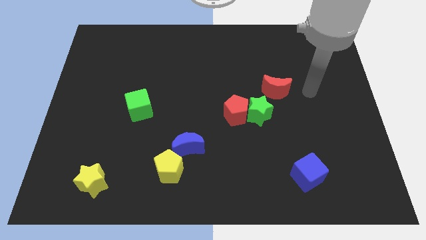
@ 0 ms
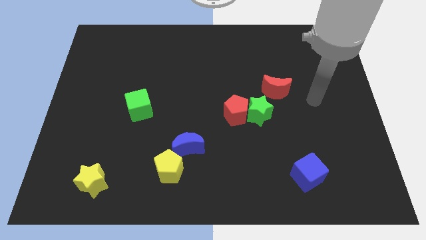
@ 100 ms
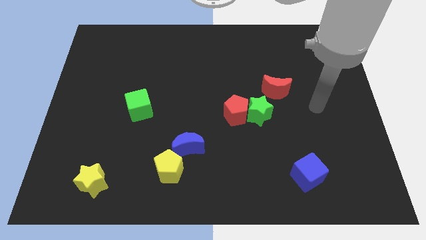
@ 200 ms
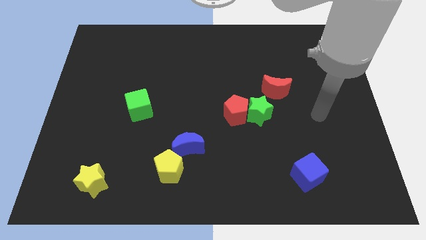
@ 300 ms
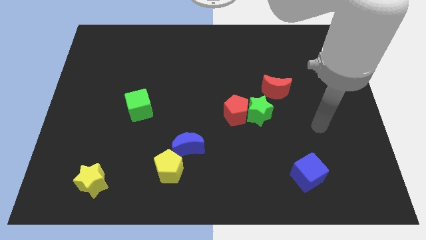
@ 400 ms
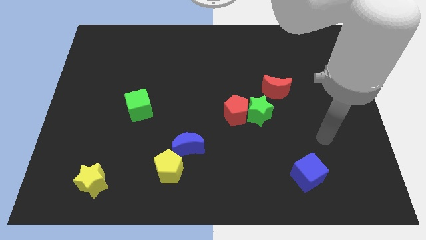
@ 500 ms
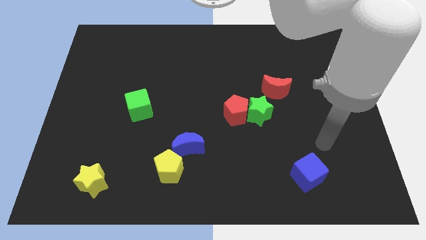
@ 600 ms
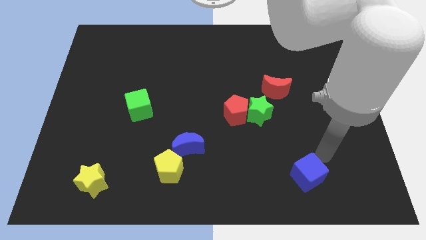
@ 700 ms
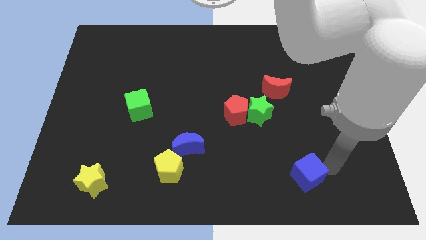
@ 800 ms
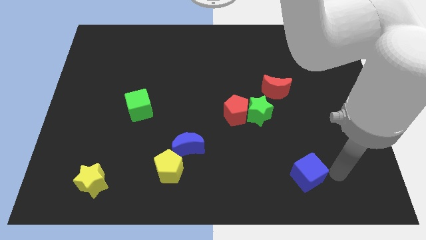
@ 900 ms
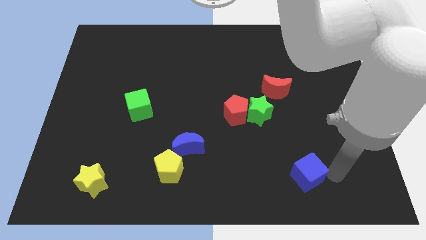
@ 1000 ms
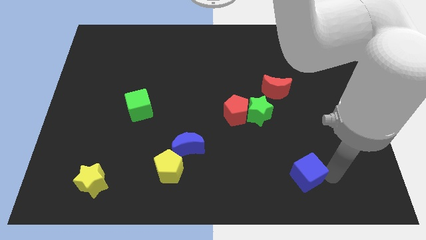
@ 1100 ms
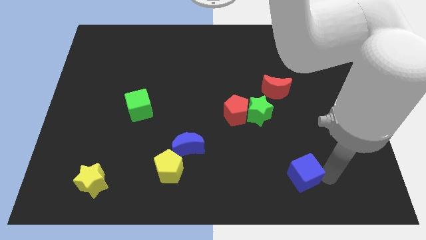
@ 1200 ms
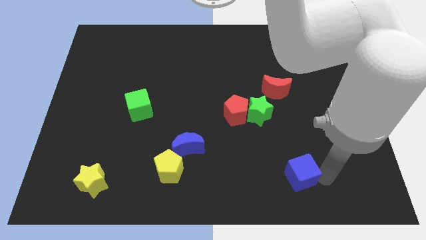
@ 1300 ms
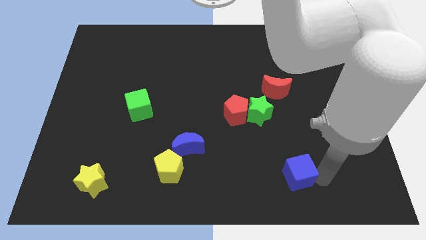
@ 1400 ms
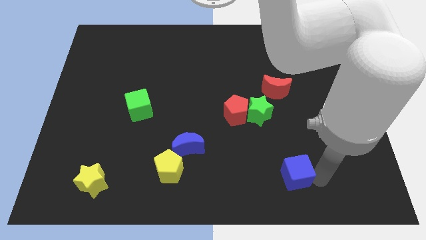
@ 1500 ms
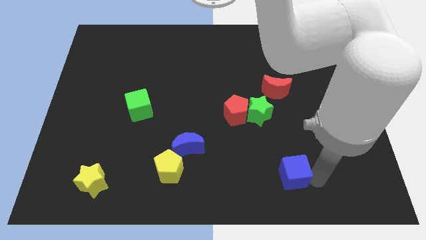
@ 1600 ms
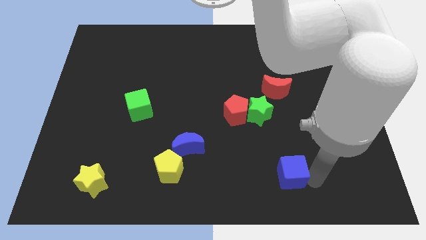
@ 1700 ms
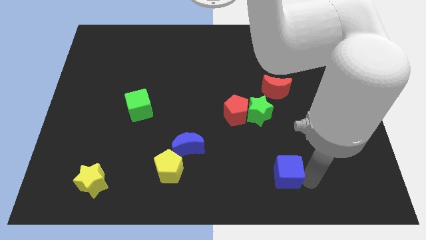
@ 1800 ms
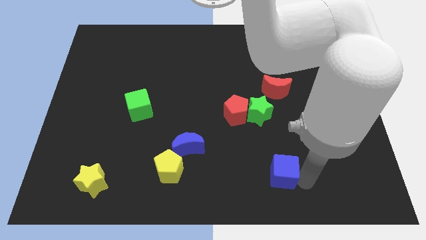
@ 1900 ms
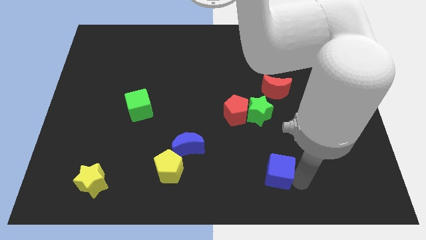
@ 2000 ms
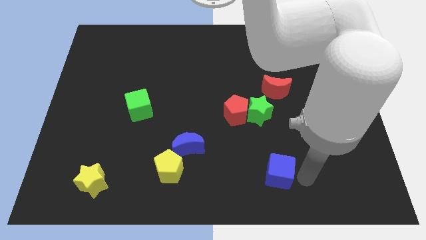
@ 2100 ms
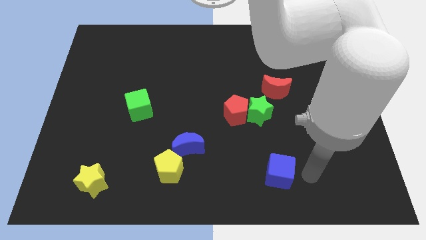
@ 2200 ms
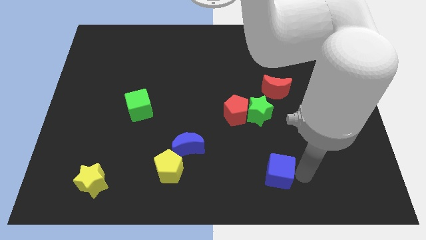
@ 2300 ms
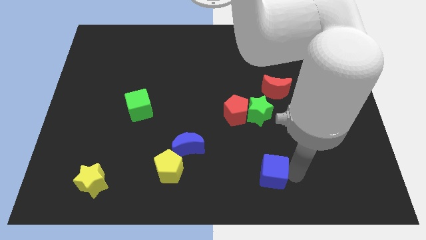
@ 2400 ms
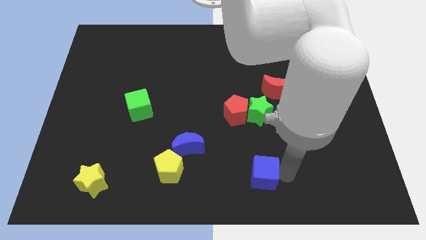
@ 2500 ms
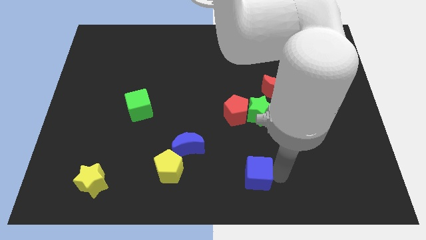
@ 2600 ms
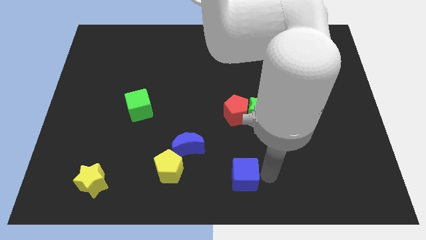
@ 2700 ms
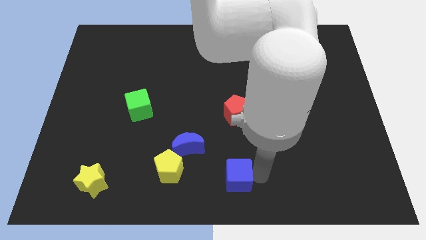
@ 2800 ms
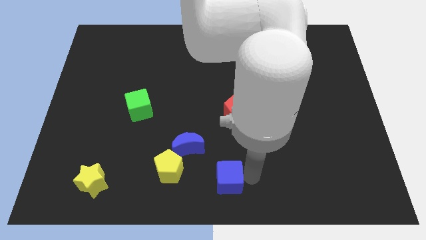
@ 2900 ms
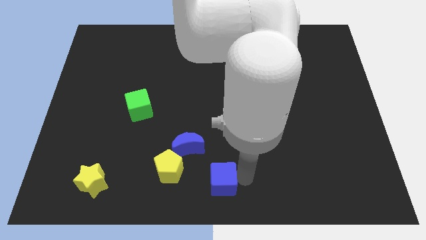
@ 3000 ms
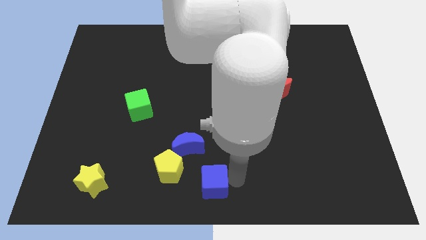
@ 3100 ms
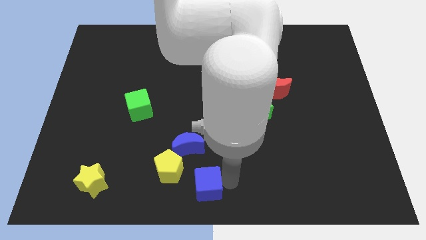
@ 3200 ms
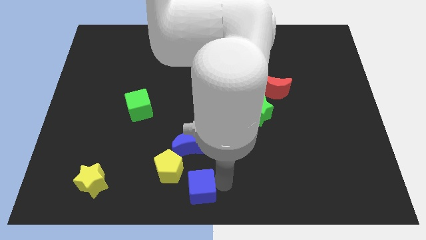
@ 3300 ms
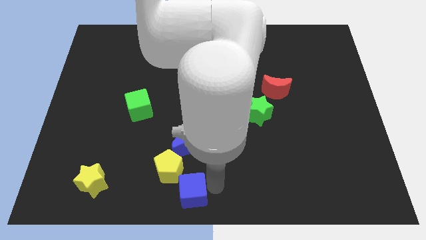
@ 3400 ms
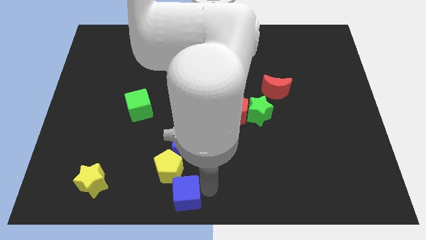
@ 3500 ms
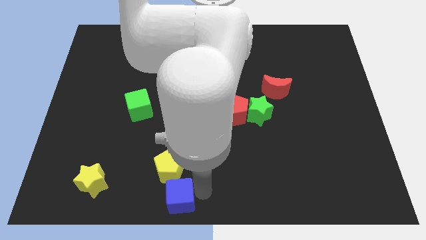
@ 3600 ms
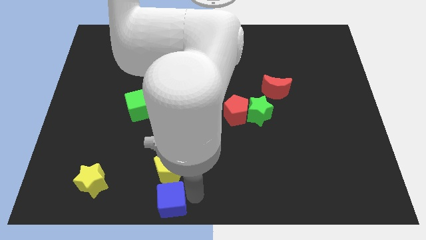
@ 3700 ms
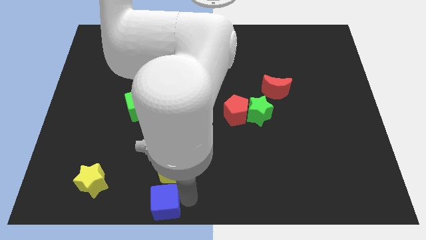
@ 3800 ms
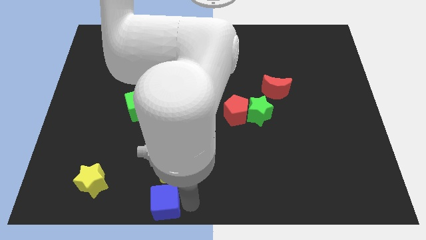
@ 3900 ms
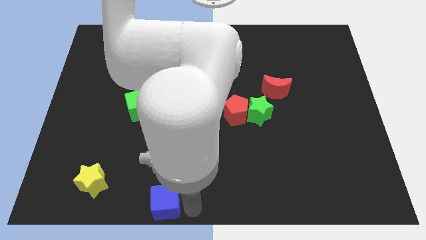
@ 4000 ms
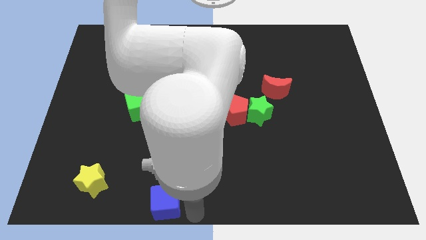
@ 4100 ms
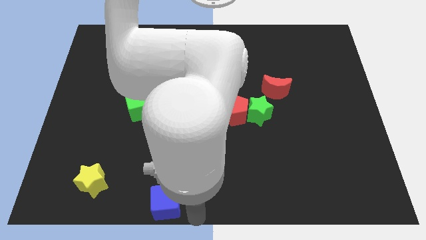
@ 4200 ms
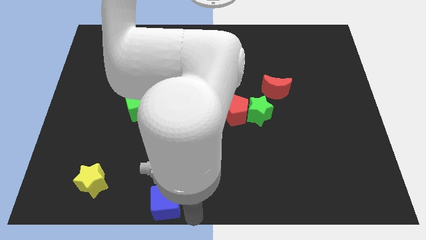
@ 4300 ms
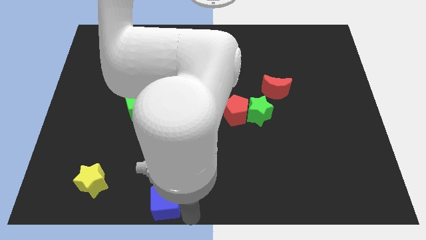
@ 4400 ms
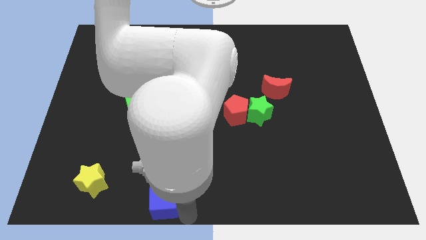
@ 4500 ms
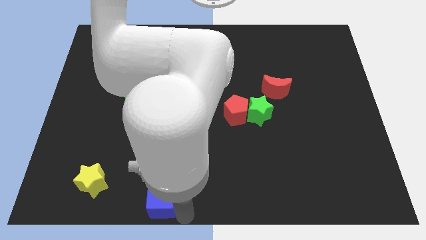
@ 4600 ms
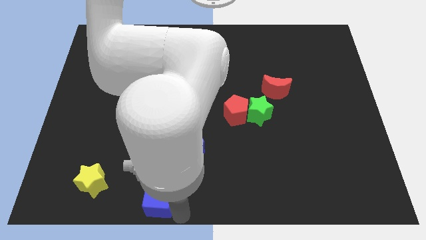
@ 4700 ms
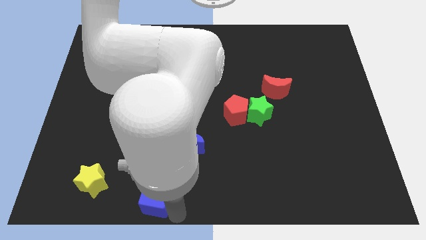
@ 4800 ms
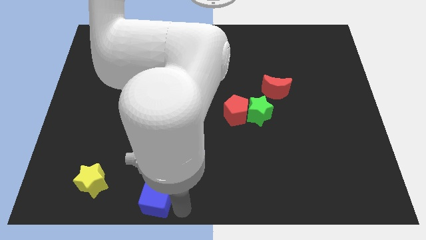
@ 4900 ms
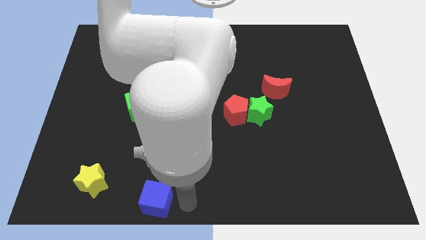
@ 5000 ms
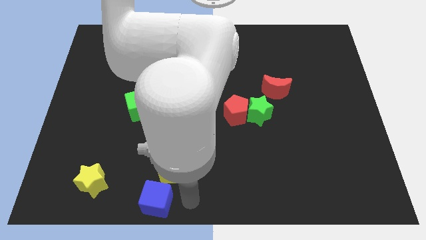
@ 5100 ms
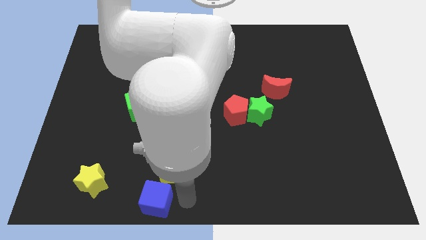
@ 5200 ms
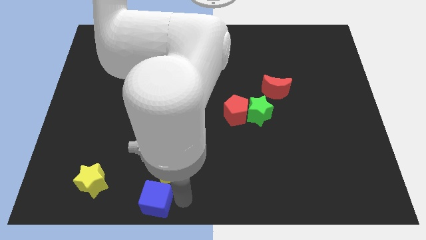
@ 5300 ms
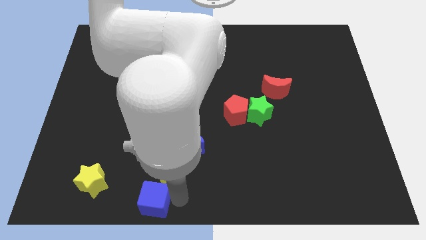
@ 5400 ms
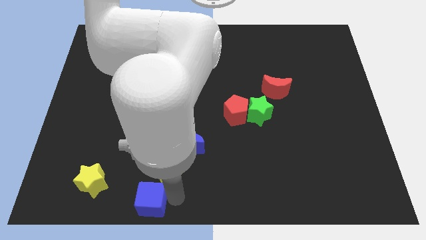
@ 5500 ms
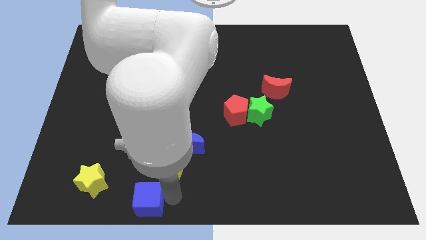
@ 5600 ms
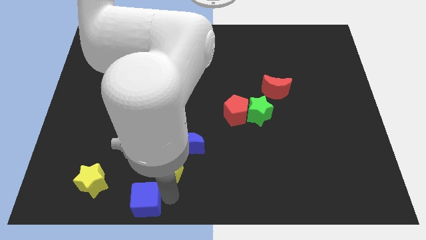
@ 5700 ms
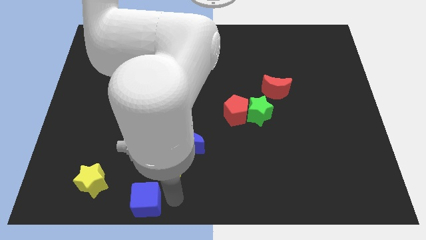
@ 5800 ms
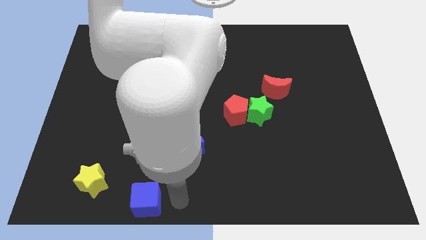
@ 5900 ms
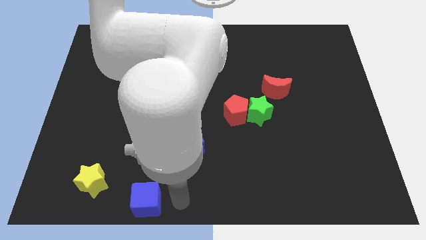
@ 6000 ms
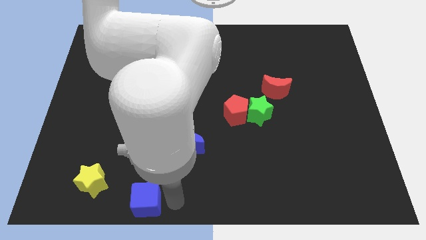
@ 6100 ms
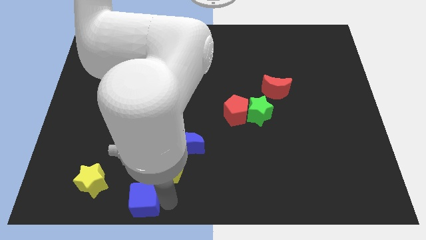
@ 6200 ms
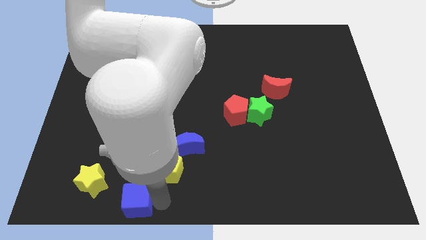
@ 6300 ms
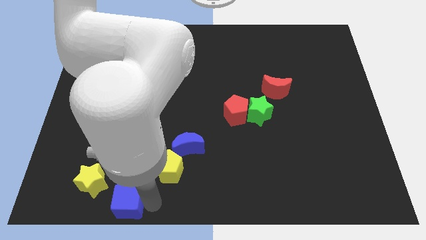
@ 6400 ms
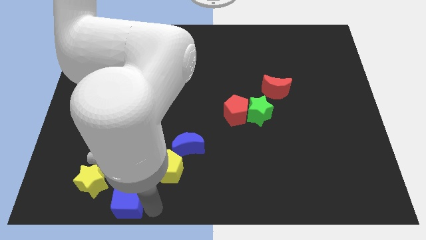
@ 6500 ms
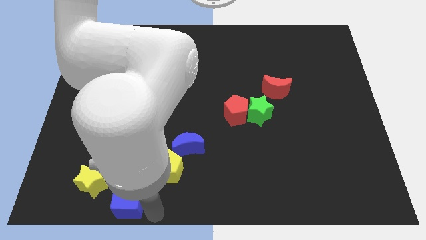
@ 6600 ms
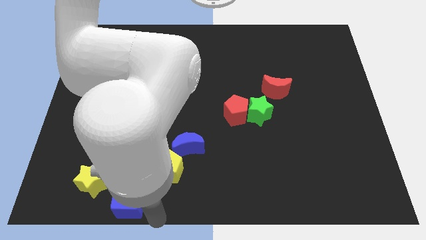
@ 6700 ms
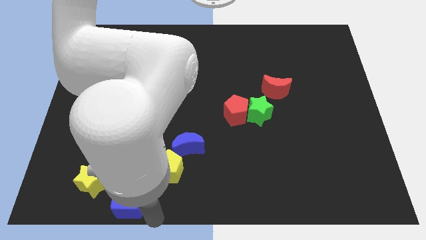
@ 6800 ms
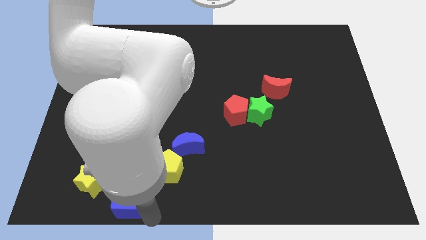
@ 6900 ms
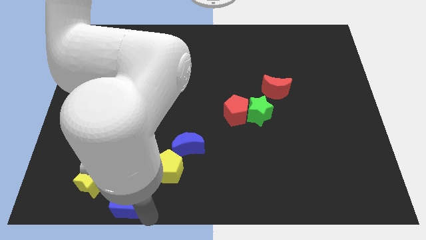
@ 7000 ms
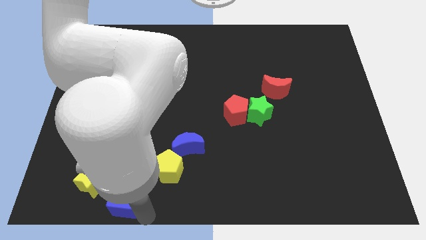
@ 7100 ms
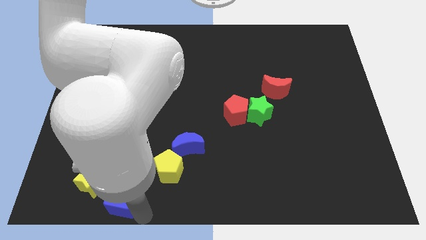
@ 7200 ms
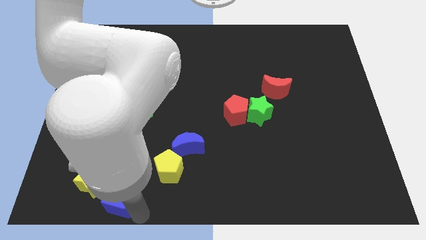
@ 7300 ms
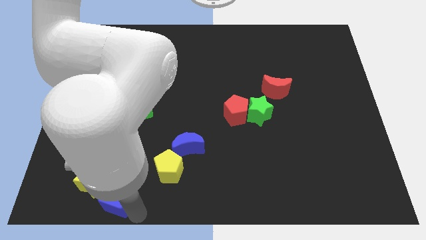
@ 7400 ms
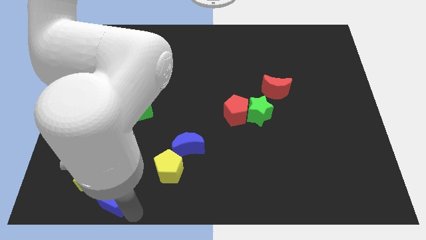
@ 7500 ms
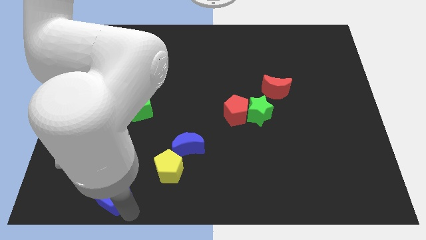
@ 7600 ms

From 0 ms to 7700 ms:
put the blue cube towards the yellow star
